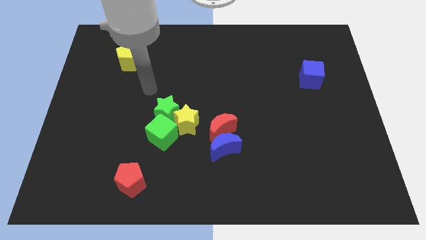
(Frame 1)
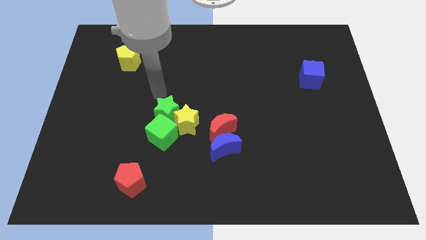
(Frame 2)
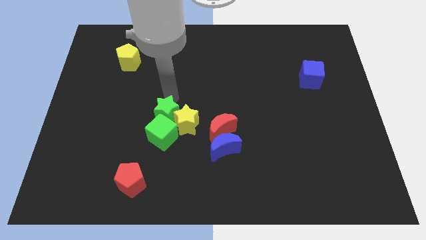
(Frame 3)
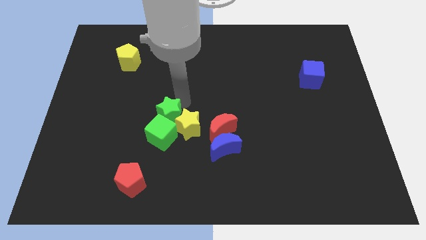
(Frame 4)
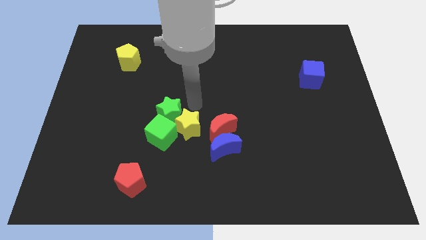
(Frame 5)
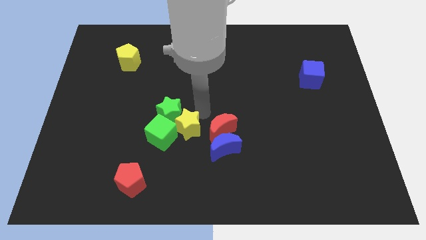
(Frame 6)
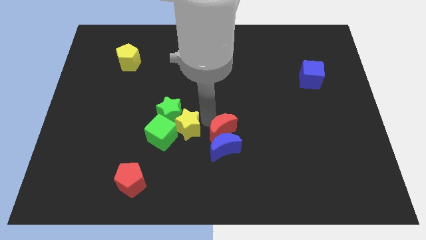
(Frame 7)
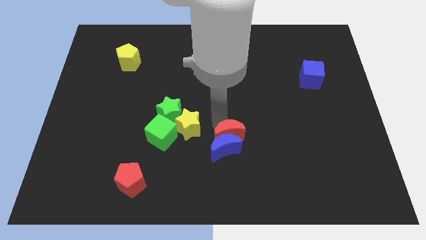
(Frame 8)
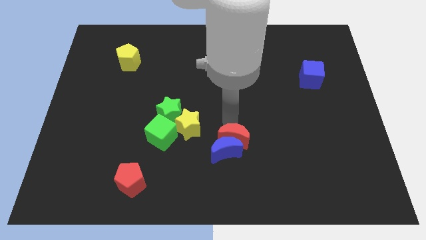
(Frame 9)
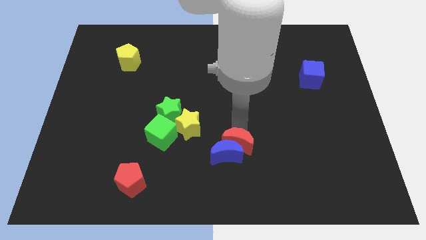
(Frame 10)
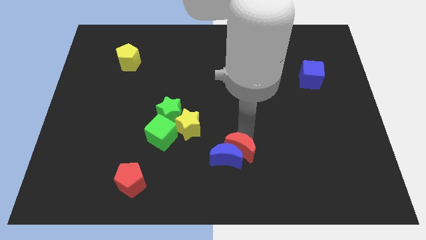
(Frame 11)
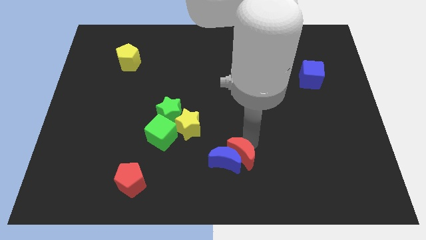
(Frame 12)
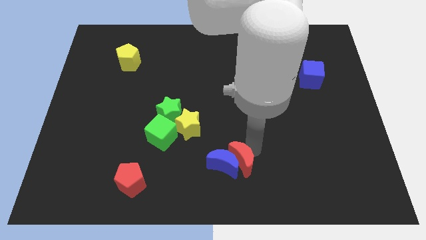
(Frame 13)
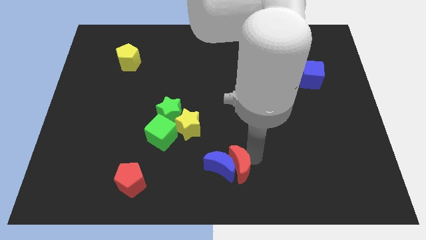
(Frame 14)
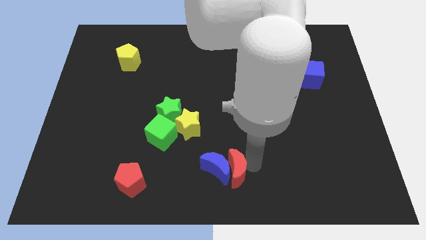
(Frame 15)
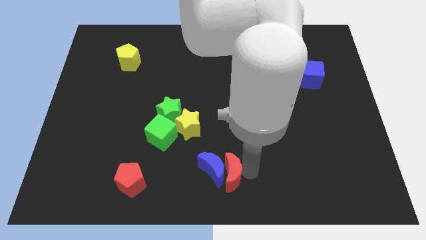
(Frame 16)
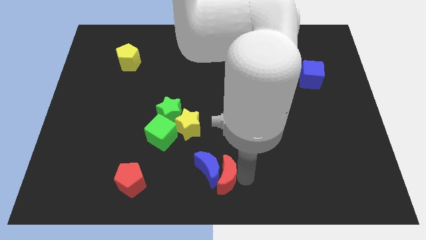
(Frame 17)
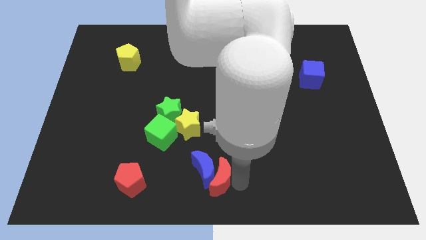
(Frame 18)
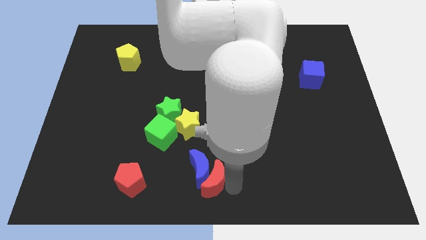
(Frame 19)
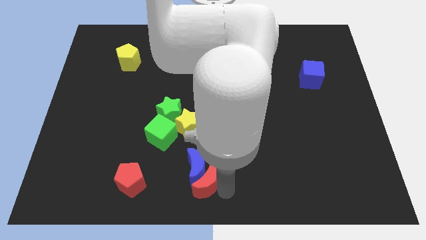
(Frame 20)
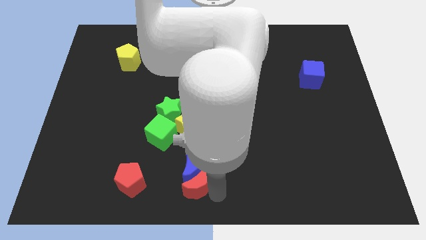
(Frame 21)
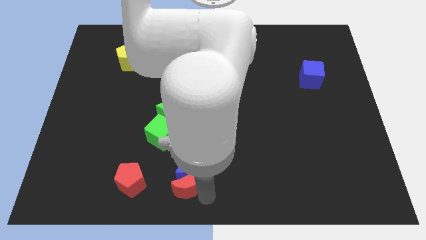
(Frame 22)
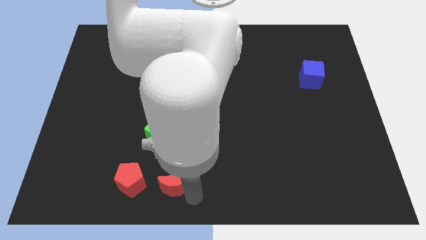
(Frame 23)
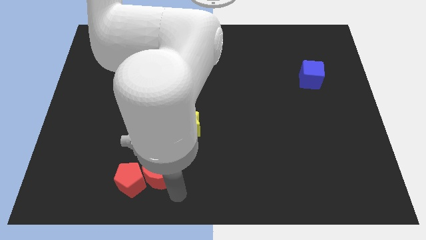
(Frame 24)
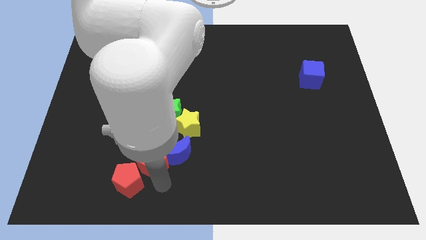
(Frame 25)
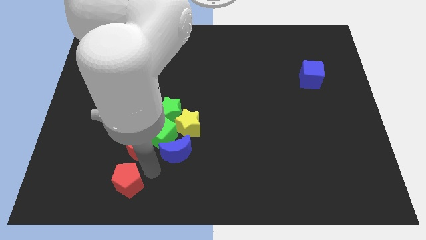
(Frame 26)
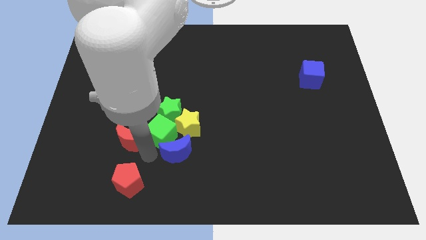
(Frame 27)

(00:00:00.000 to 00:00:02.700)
move the blue moon away from the red moon

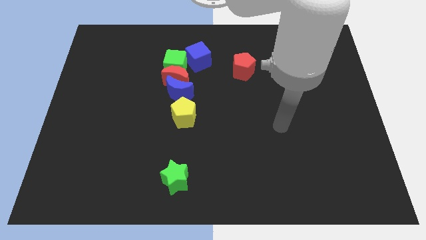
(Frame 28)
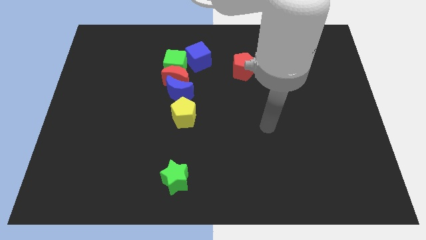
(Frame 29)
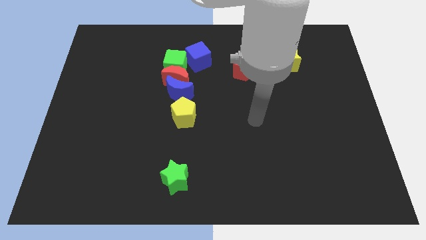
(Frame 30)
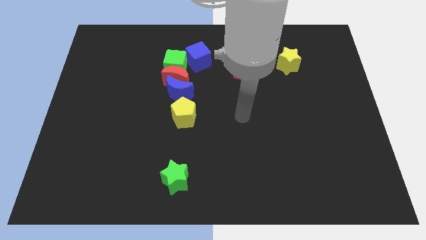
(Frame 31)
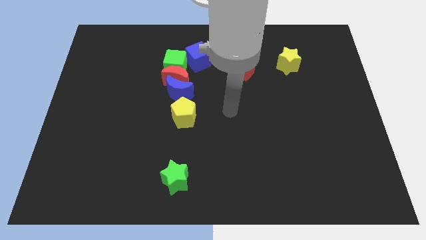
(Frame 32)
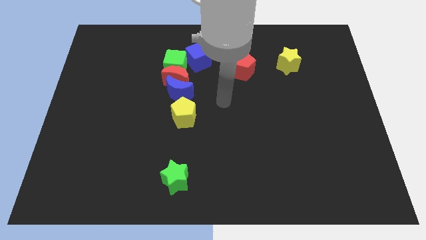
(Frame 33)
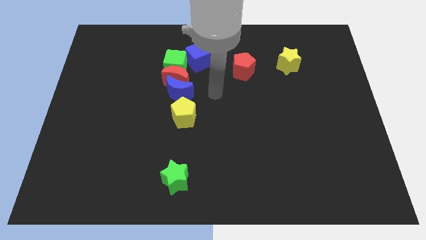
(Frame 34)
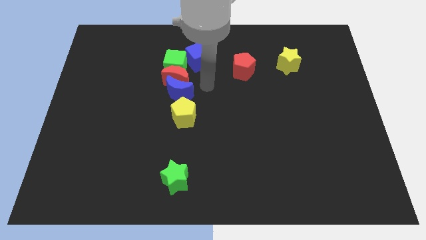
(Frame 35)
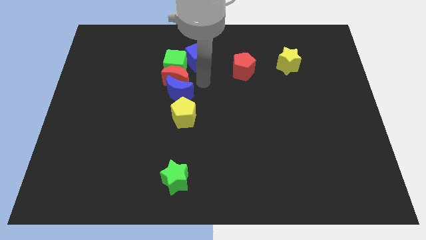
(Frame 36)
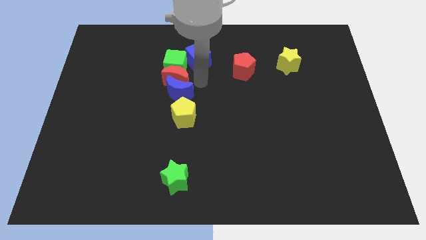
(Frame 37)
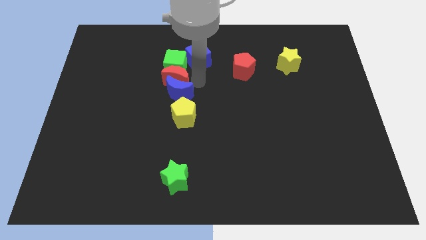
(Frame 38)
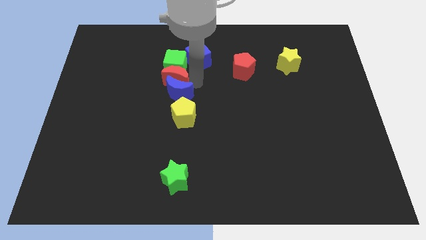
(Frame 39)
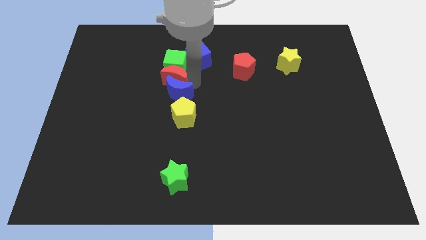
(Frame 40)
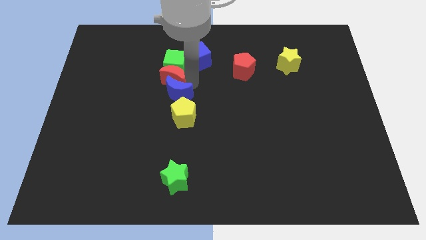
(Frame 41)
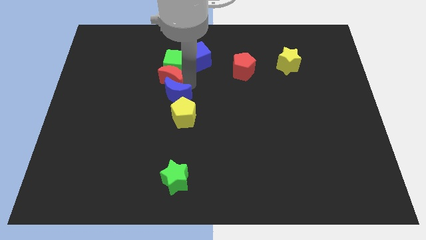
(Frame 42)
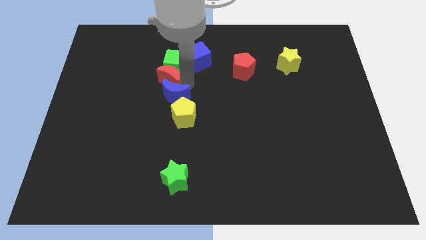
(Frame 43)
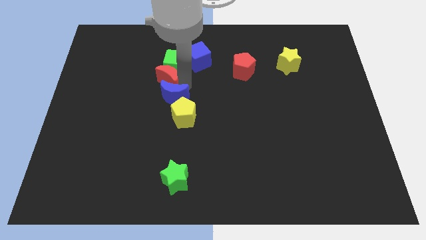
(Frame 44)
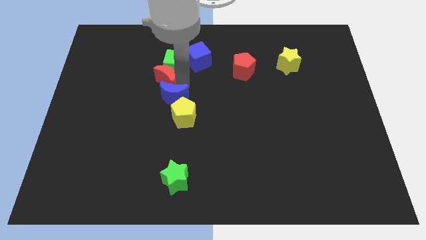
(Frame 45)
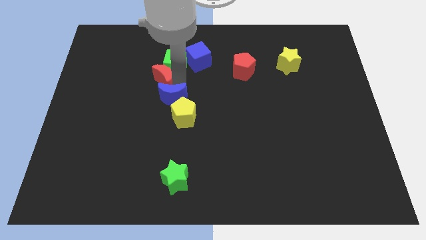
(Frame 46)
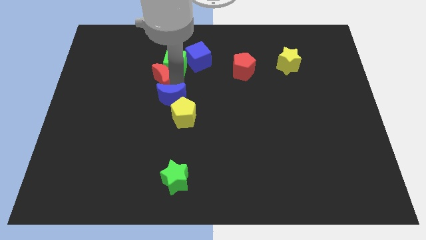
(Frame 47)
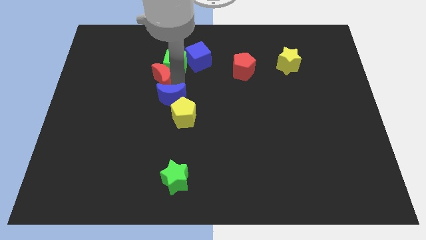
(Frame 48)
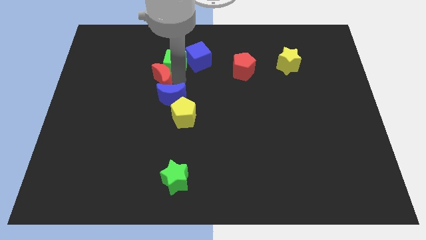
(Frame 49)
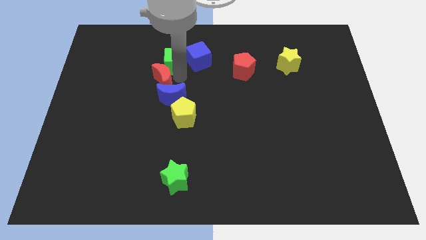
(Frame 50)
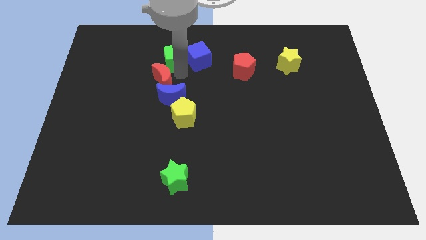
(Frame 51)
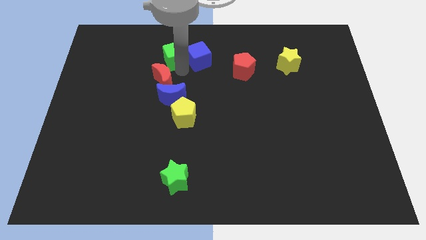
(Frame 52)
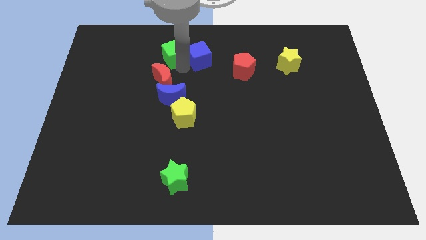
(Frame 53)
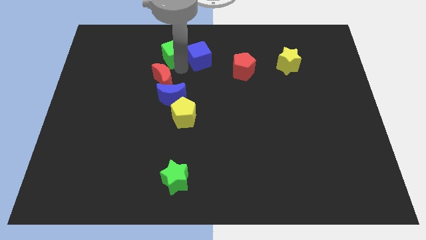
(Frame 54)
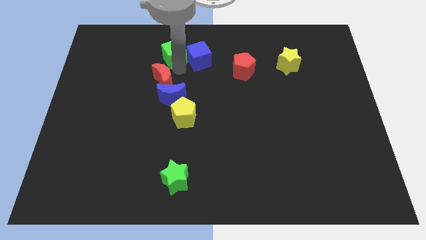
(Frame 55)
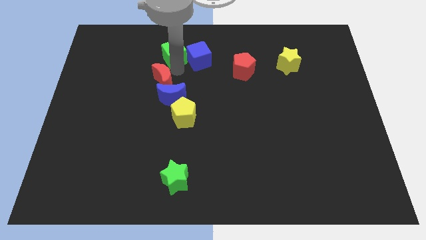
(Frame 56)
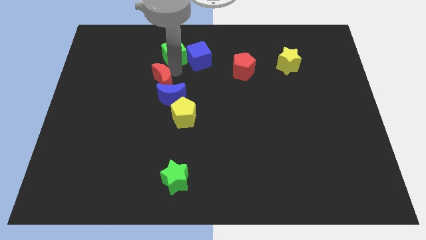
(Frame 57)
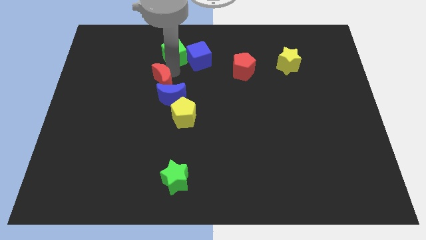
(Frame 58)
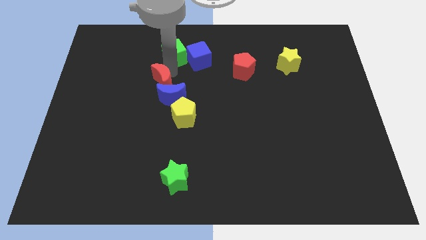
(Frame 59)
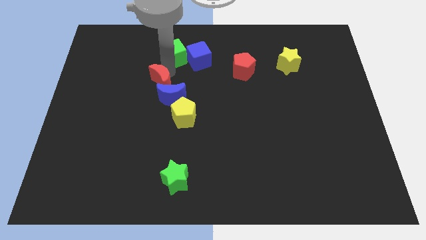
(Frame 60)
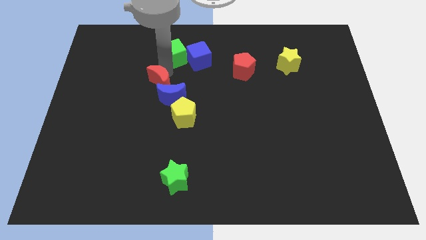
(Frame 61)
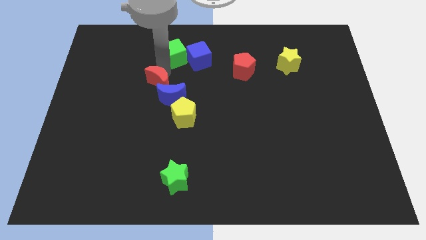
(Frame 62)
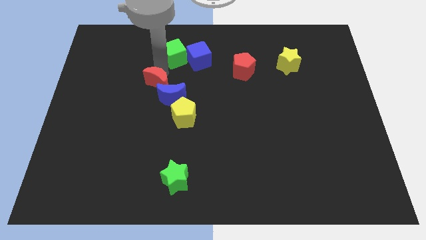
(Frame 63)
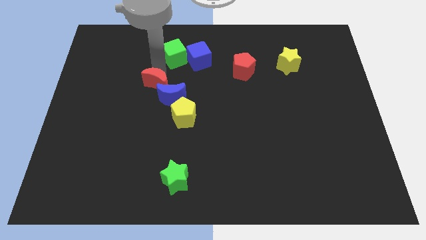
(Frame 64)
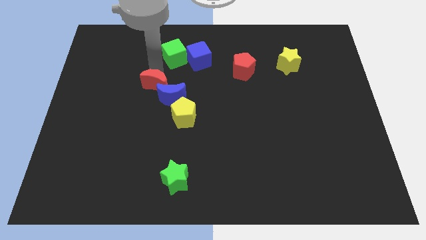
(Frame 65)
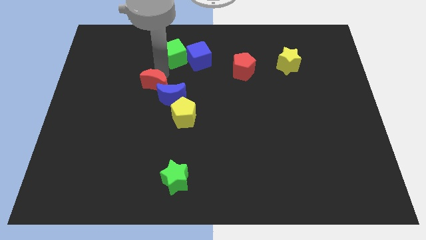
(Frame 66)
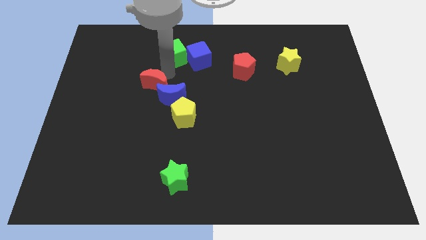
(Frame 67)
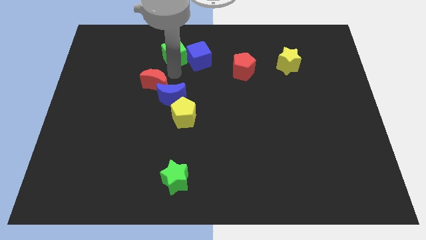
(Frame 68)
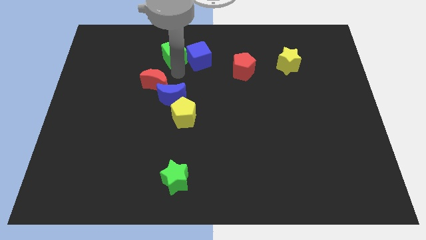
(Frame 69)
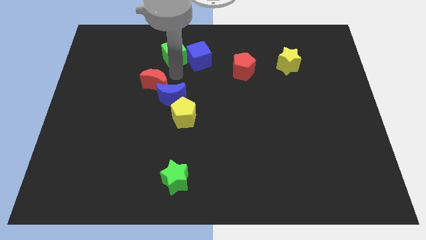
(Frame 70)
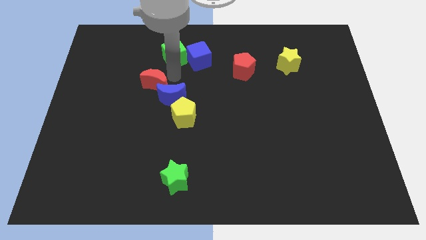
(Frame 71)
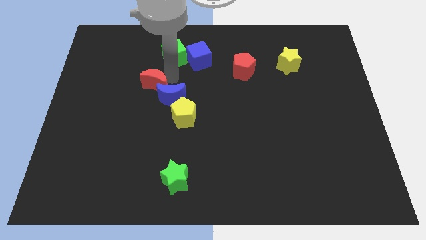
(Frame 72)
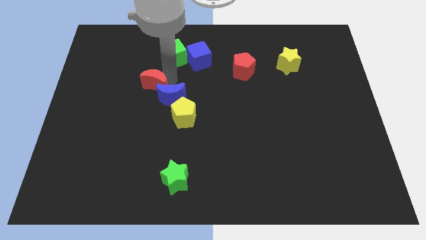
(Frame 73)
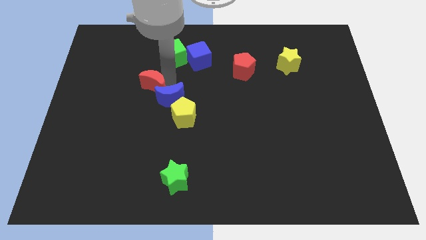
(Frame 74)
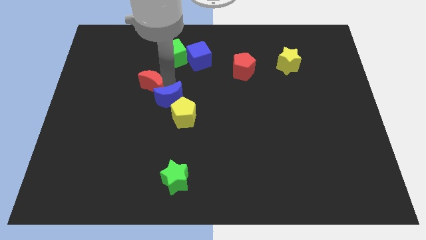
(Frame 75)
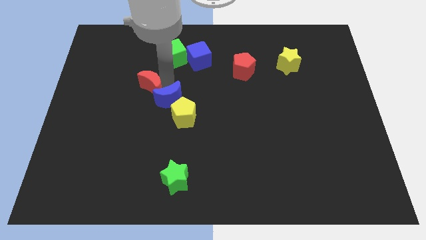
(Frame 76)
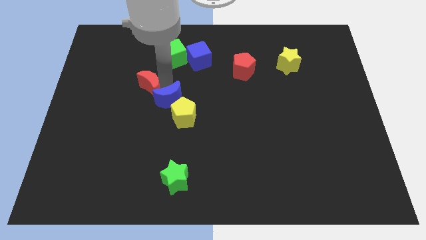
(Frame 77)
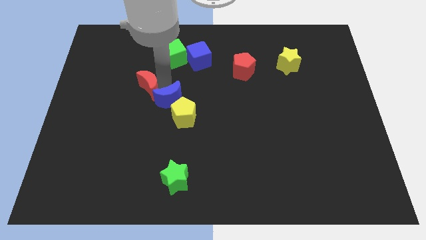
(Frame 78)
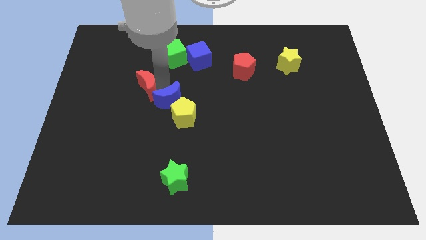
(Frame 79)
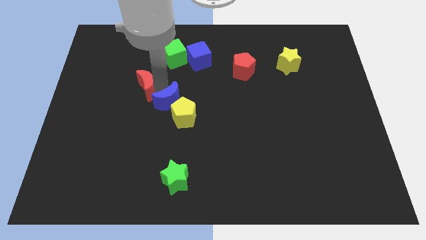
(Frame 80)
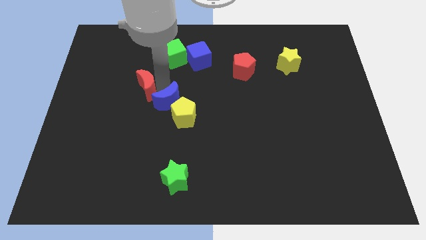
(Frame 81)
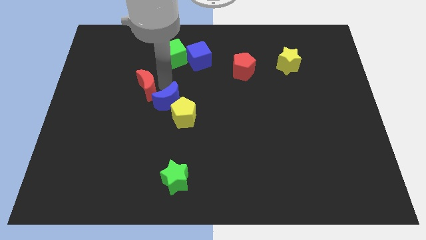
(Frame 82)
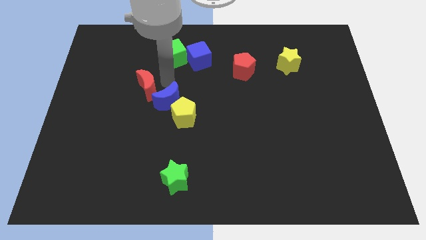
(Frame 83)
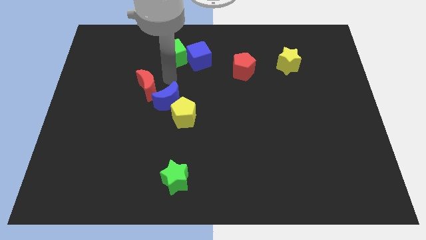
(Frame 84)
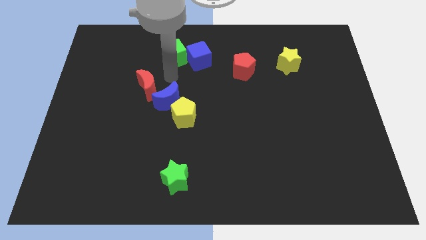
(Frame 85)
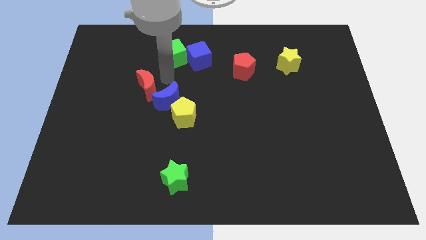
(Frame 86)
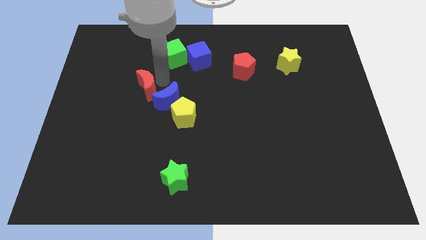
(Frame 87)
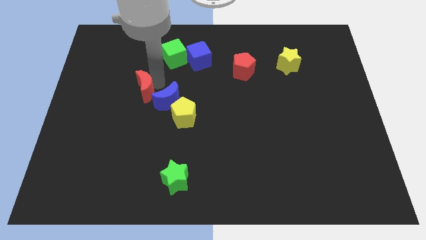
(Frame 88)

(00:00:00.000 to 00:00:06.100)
separate the red moon from the blue moon, green cube, and blue cube

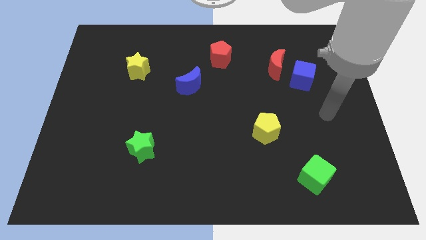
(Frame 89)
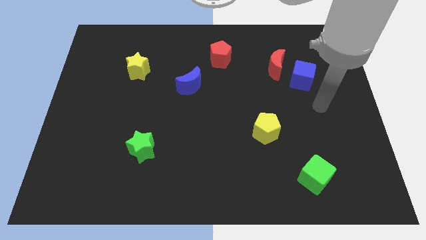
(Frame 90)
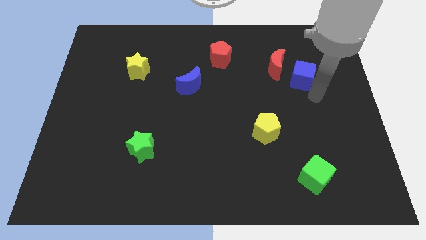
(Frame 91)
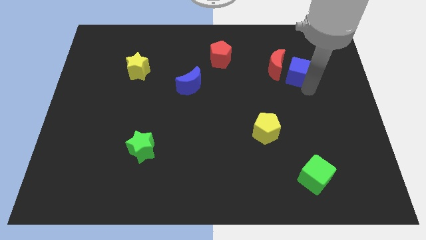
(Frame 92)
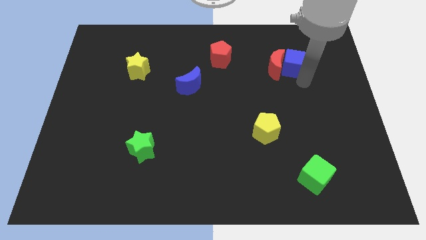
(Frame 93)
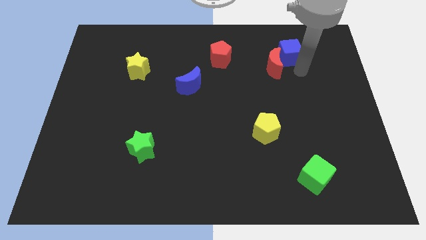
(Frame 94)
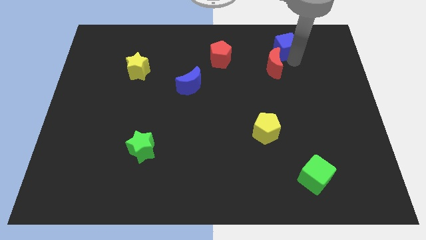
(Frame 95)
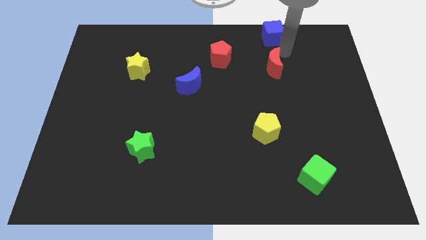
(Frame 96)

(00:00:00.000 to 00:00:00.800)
separate the red moon from the blue cube
